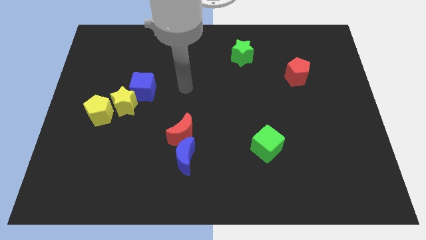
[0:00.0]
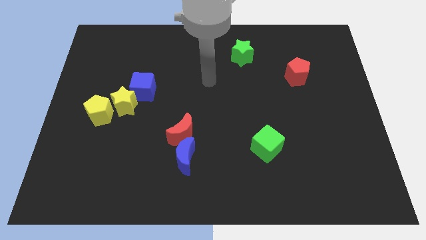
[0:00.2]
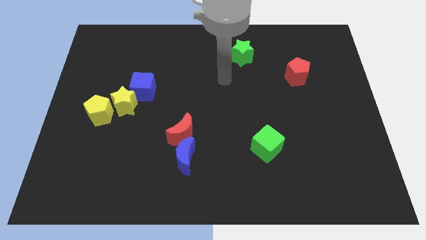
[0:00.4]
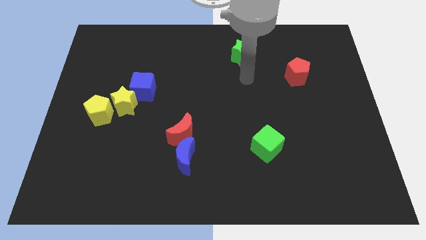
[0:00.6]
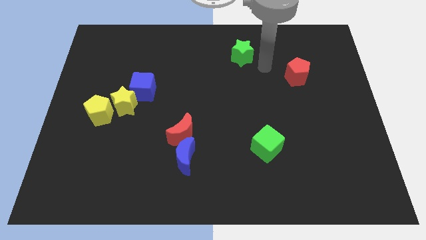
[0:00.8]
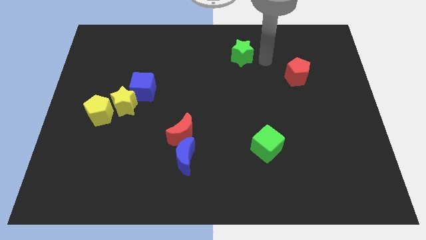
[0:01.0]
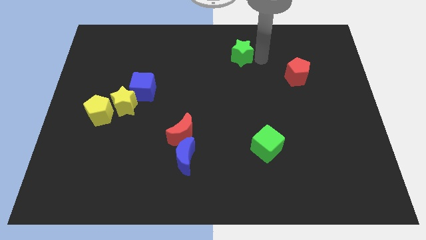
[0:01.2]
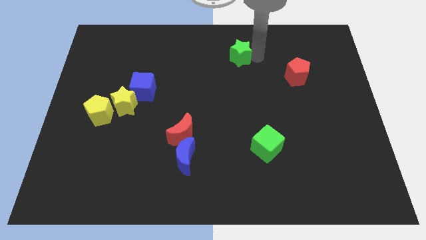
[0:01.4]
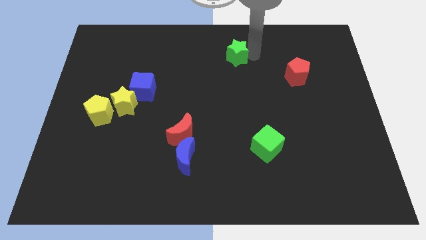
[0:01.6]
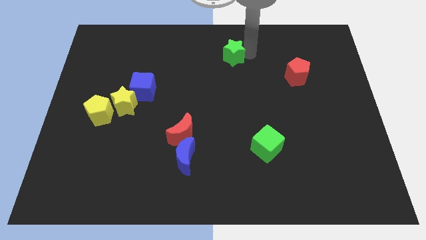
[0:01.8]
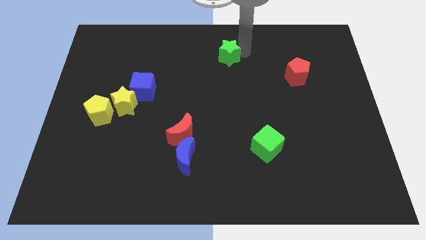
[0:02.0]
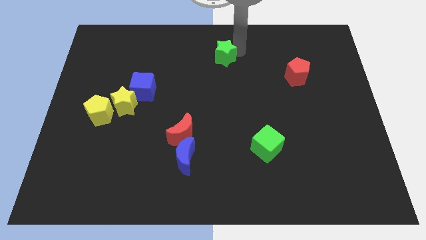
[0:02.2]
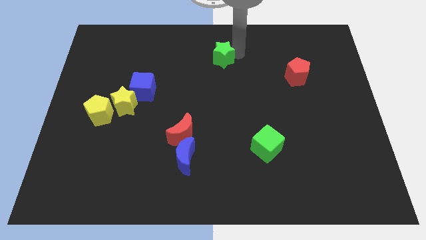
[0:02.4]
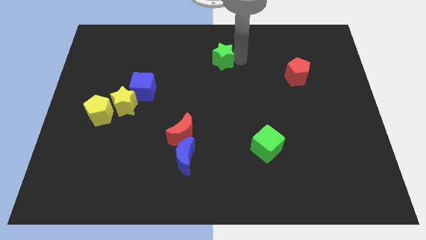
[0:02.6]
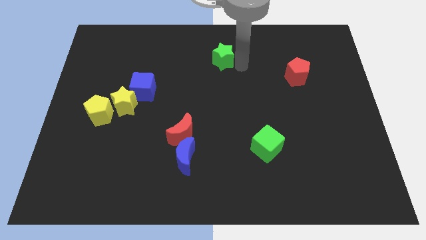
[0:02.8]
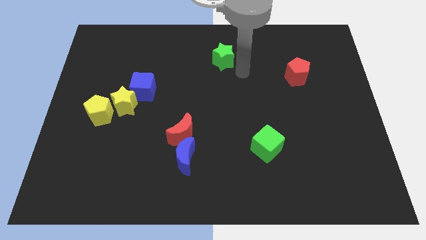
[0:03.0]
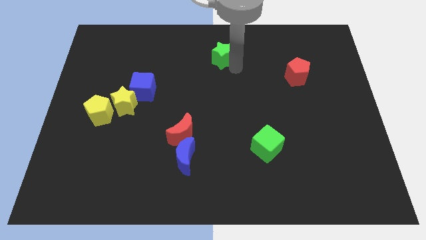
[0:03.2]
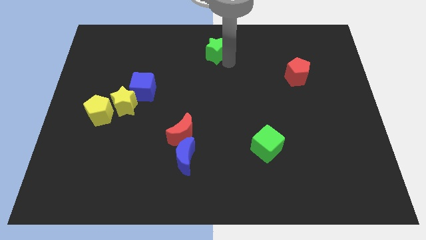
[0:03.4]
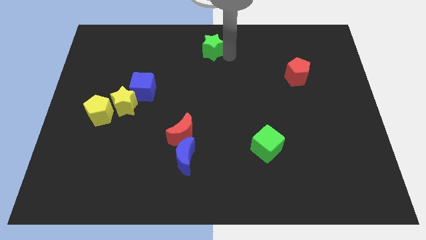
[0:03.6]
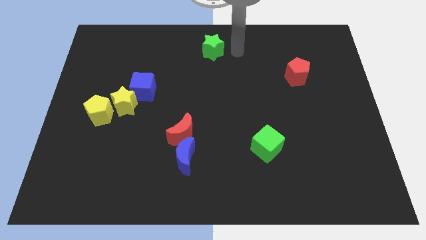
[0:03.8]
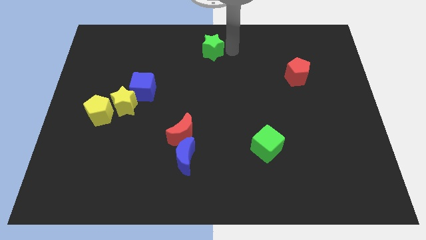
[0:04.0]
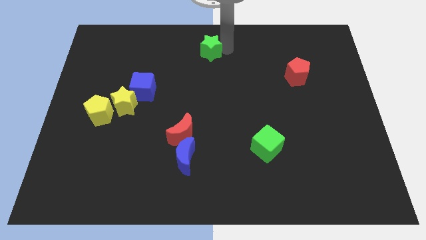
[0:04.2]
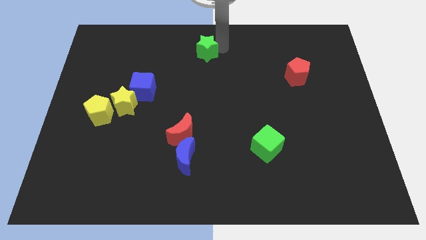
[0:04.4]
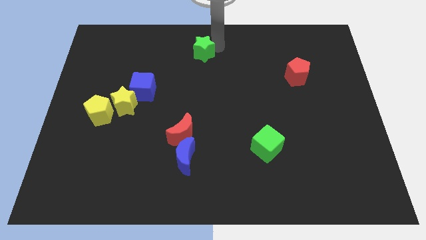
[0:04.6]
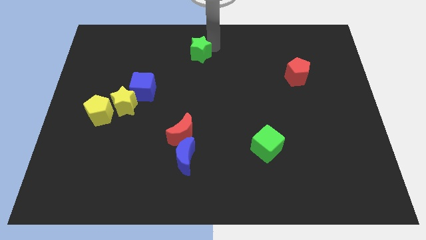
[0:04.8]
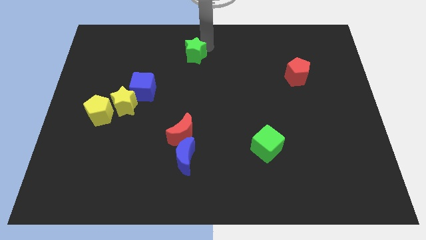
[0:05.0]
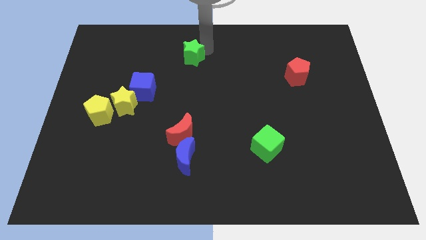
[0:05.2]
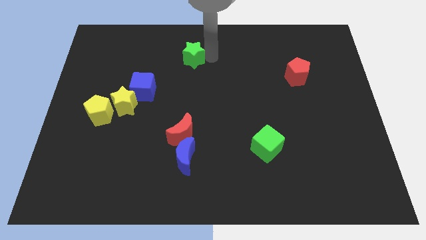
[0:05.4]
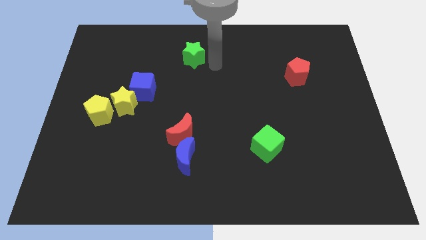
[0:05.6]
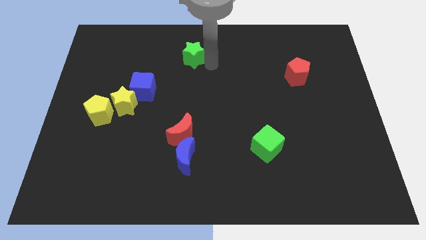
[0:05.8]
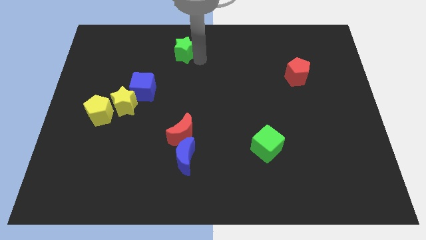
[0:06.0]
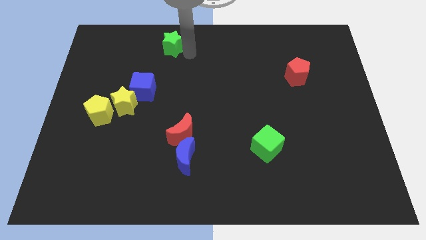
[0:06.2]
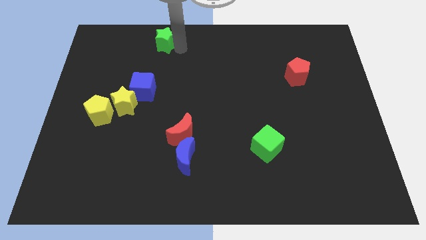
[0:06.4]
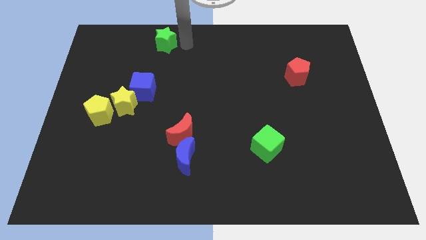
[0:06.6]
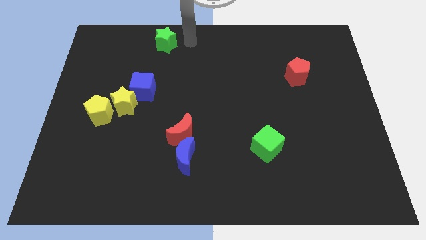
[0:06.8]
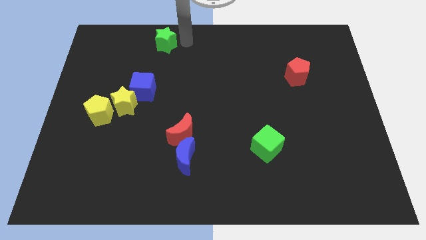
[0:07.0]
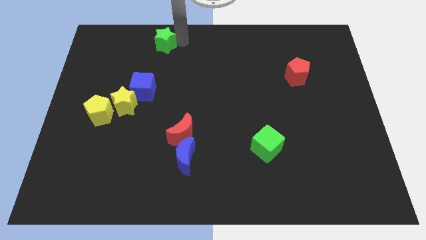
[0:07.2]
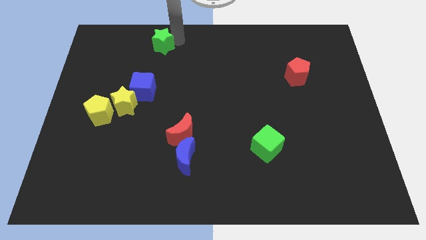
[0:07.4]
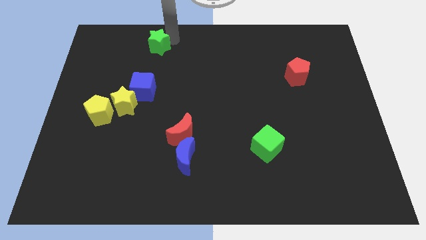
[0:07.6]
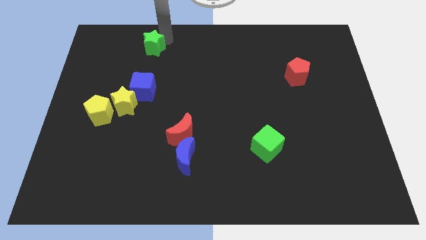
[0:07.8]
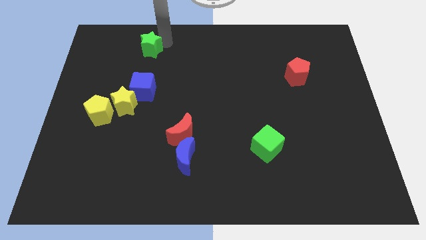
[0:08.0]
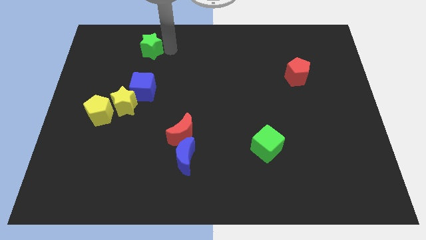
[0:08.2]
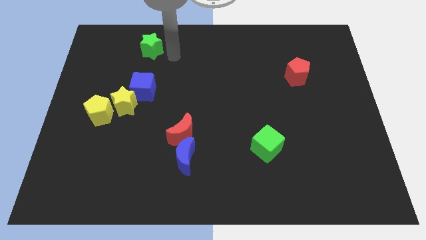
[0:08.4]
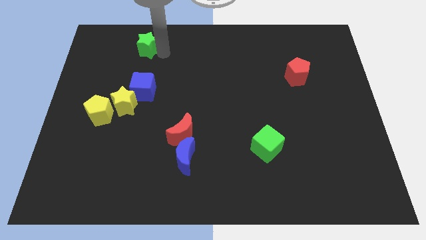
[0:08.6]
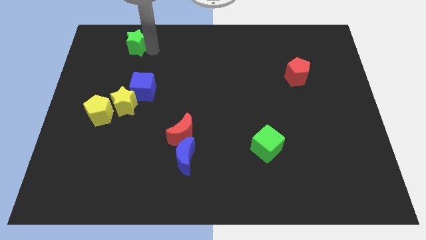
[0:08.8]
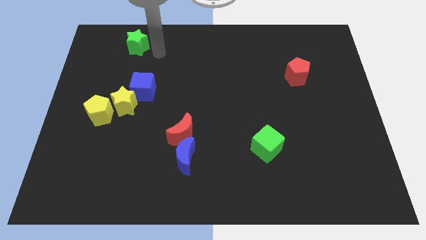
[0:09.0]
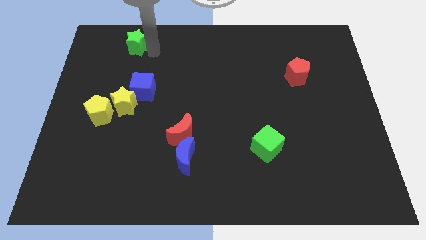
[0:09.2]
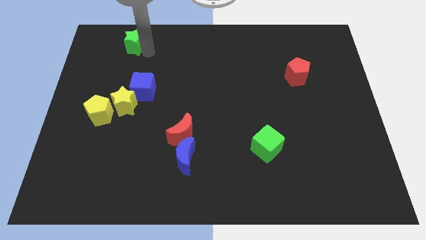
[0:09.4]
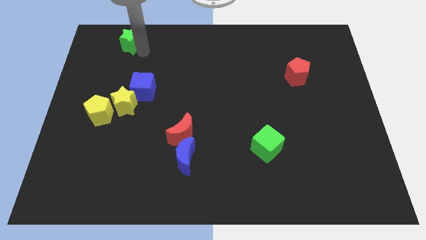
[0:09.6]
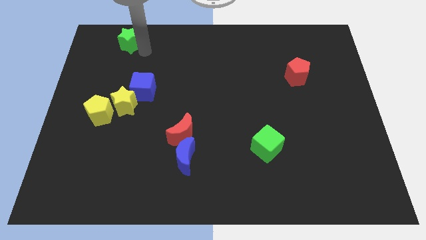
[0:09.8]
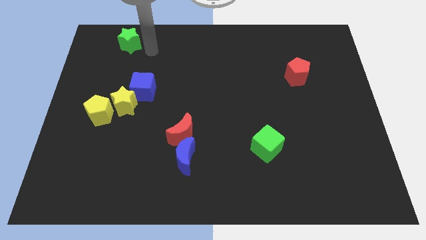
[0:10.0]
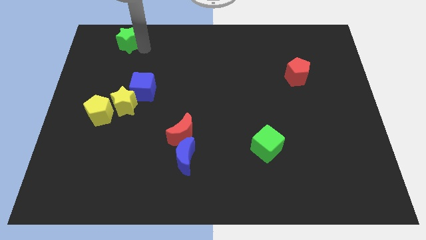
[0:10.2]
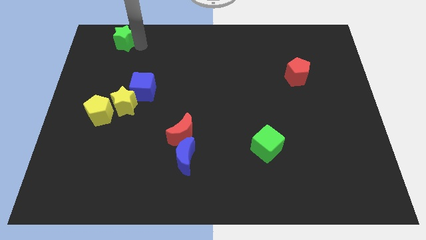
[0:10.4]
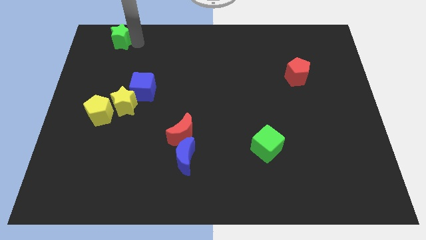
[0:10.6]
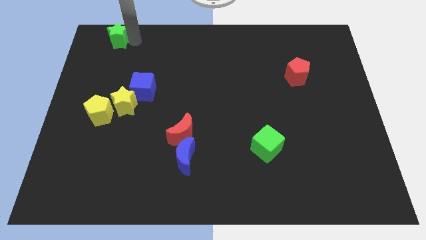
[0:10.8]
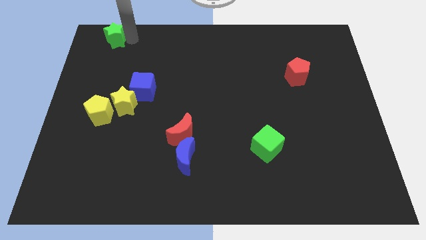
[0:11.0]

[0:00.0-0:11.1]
put the green star to the upper left corner

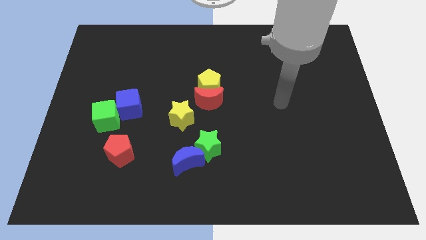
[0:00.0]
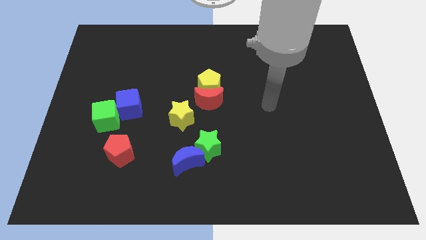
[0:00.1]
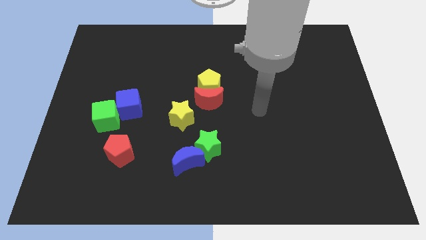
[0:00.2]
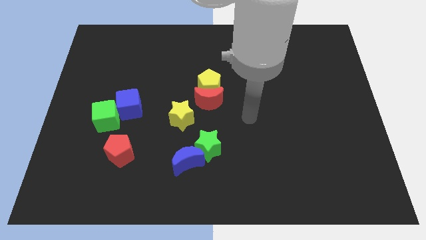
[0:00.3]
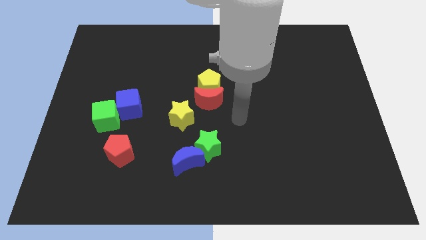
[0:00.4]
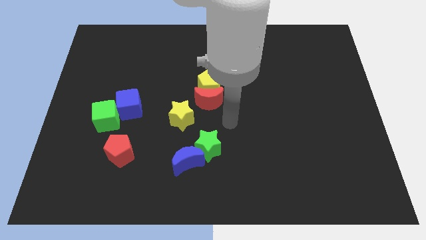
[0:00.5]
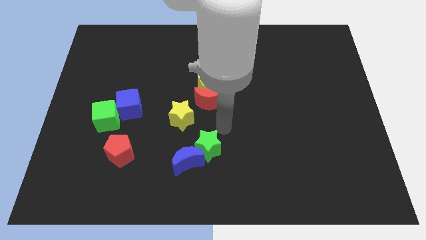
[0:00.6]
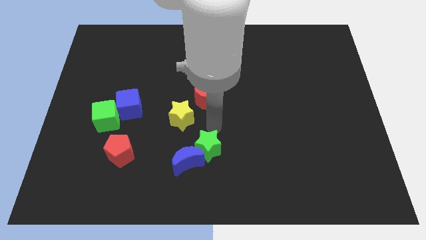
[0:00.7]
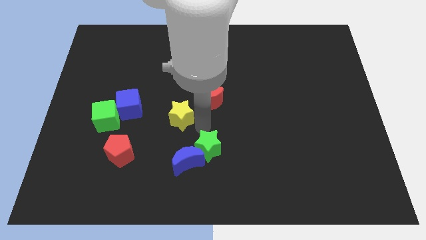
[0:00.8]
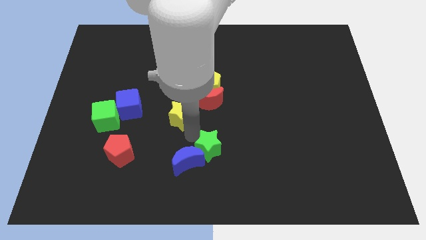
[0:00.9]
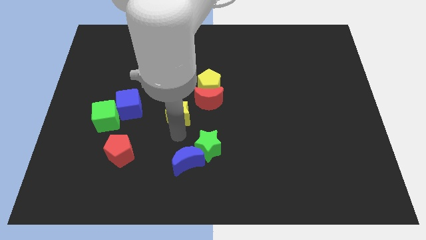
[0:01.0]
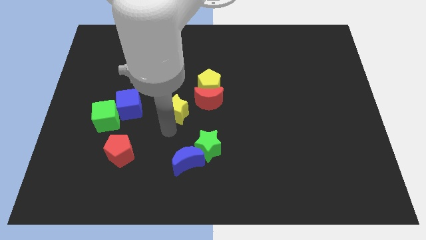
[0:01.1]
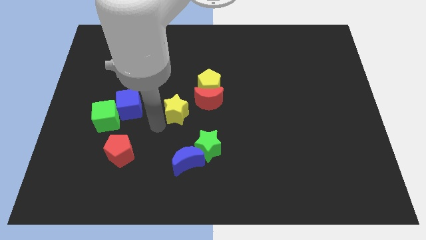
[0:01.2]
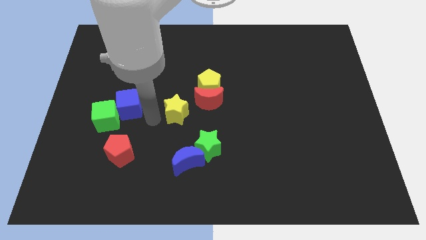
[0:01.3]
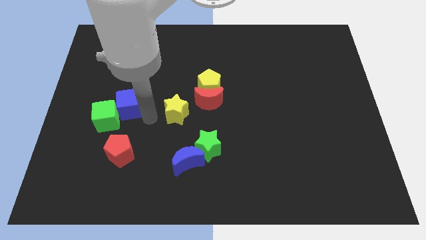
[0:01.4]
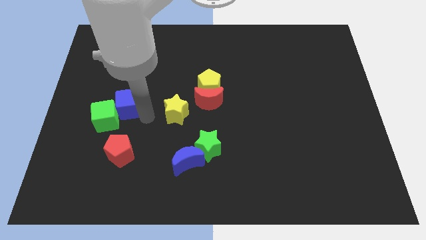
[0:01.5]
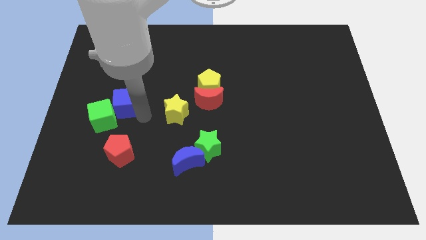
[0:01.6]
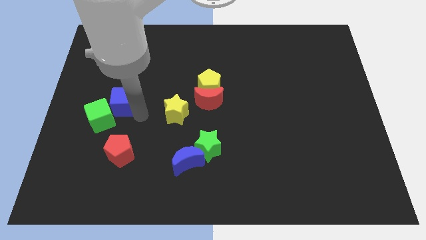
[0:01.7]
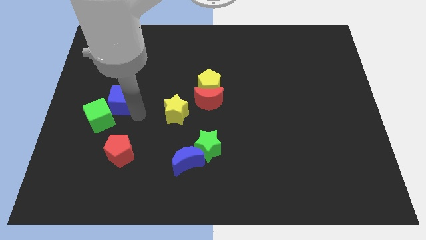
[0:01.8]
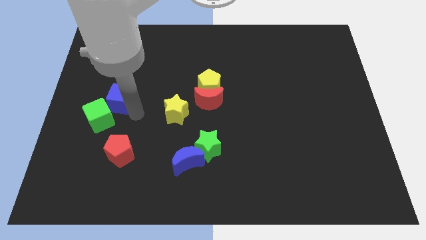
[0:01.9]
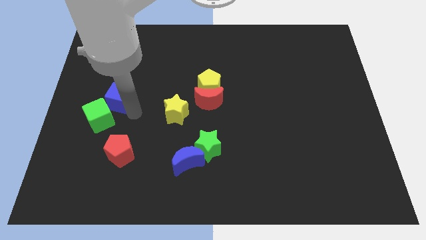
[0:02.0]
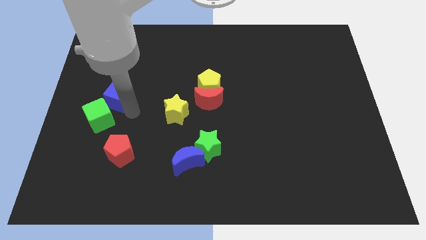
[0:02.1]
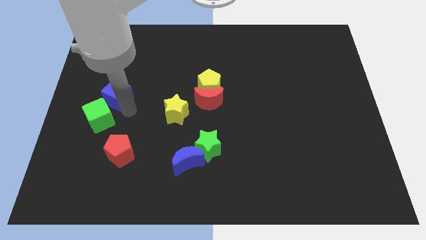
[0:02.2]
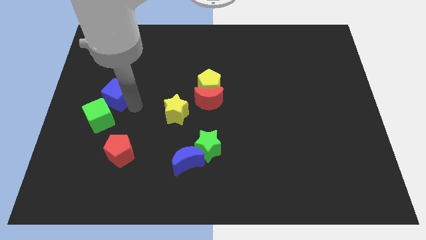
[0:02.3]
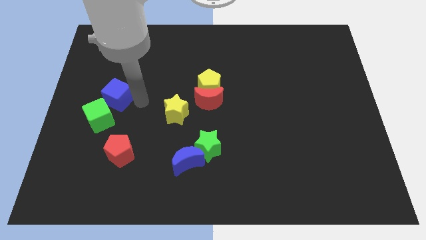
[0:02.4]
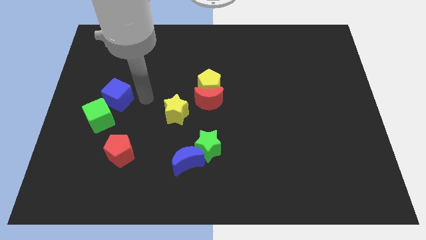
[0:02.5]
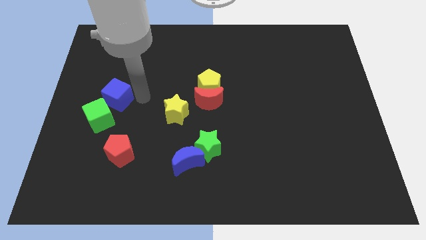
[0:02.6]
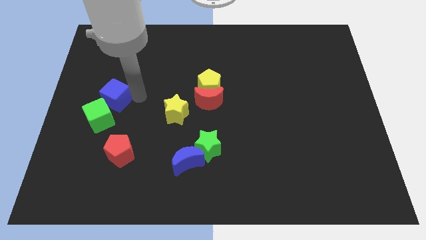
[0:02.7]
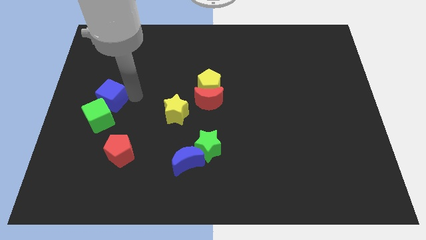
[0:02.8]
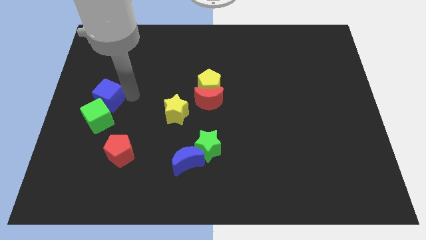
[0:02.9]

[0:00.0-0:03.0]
move the blue cube to the center left
